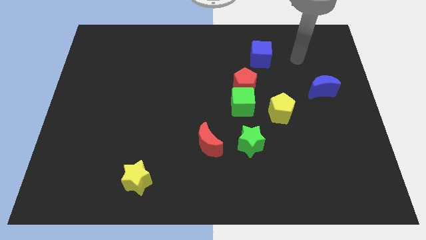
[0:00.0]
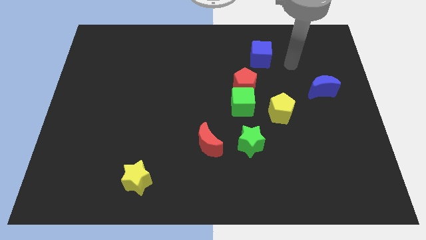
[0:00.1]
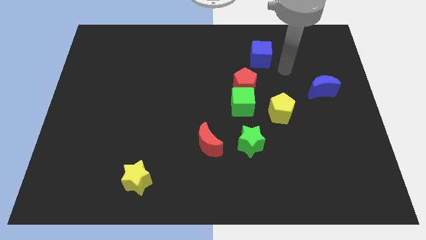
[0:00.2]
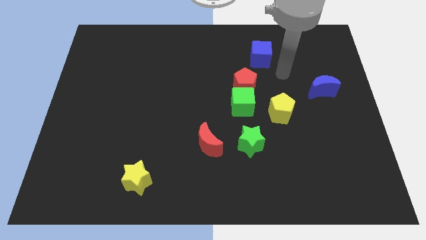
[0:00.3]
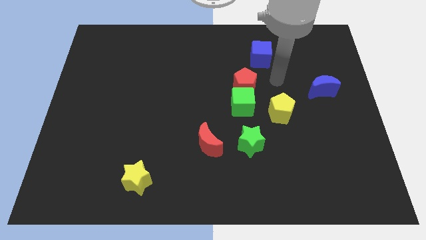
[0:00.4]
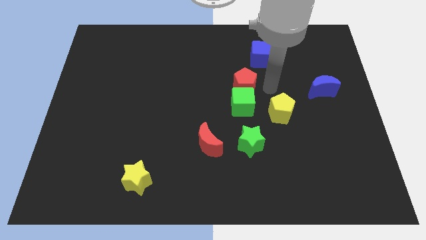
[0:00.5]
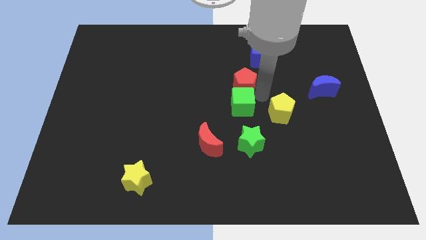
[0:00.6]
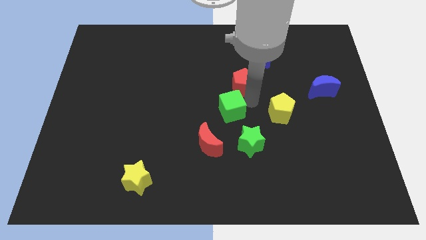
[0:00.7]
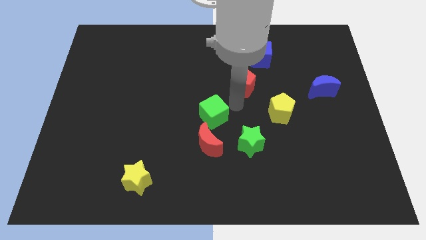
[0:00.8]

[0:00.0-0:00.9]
separate the red pentagon from the green cube

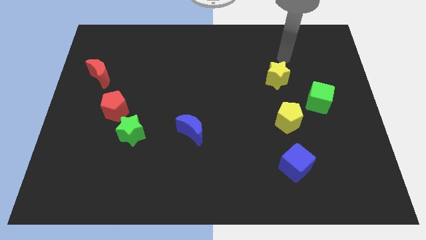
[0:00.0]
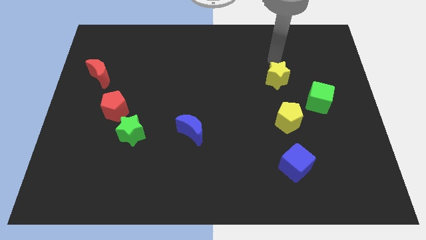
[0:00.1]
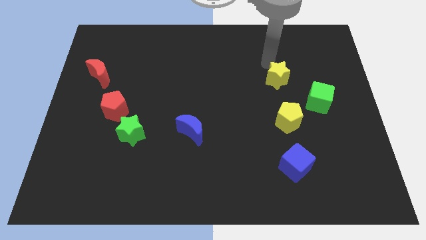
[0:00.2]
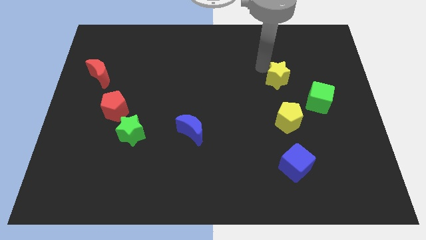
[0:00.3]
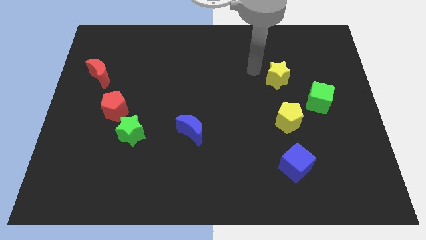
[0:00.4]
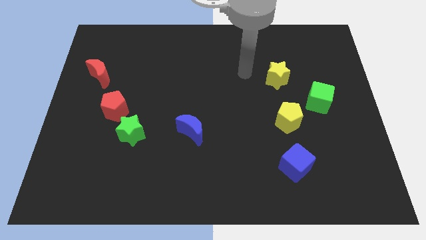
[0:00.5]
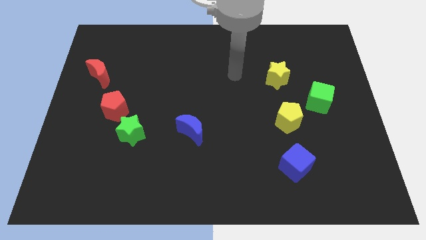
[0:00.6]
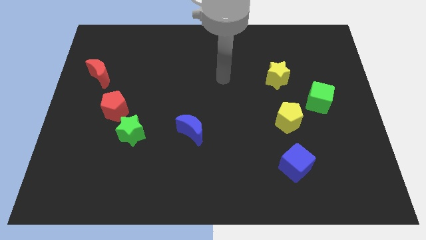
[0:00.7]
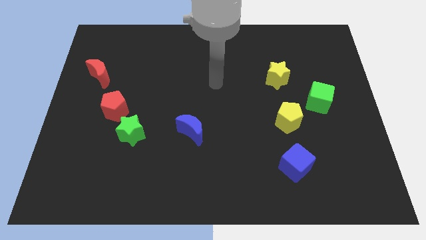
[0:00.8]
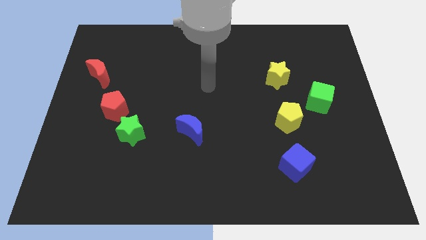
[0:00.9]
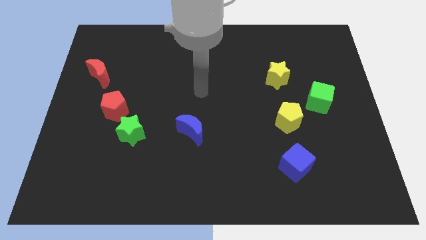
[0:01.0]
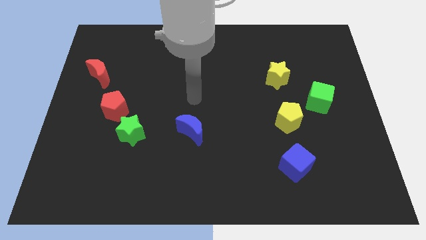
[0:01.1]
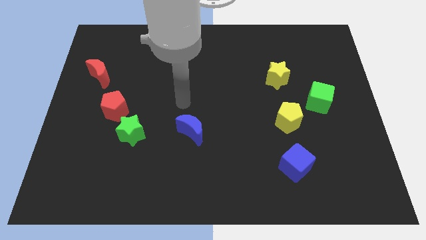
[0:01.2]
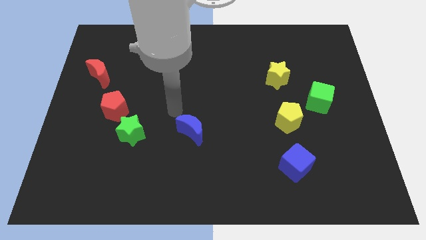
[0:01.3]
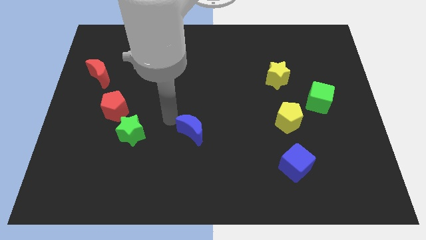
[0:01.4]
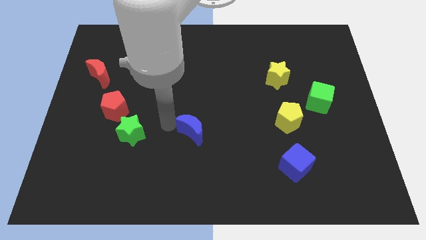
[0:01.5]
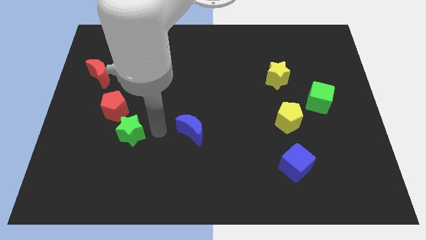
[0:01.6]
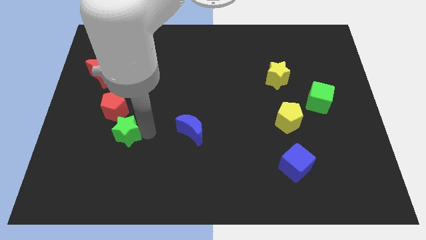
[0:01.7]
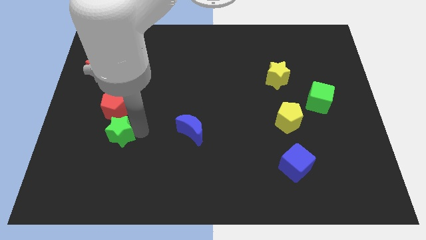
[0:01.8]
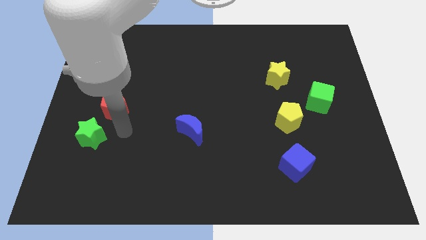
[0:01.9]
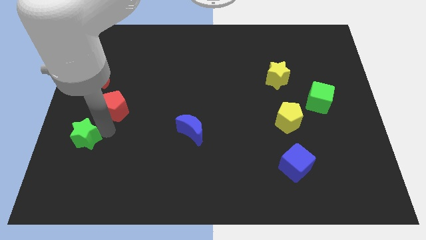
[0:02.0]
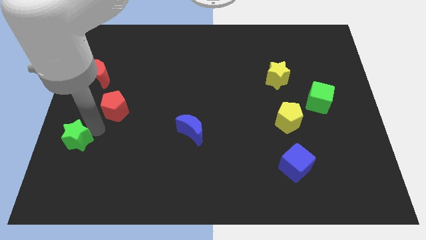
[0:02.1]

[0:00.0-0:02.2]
pull the red pentagon apart from the green star

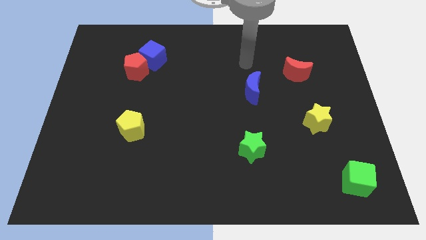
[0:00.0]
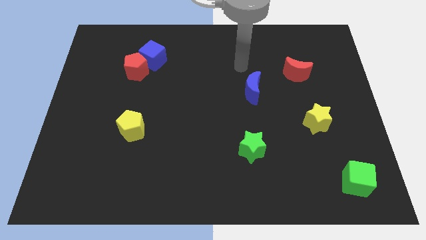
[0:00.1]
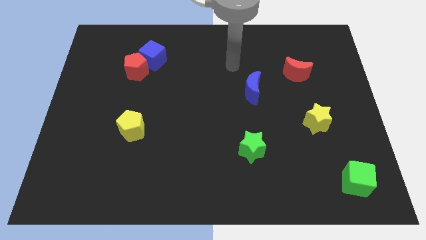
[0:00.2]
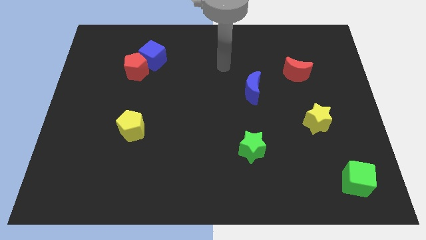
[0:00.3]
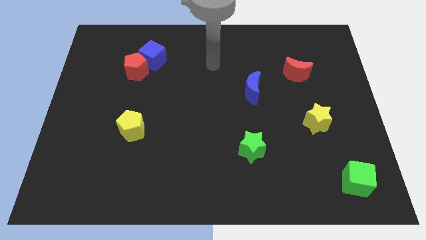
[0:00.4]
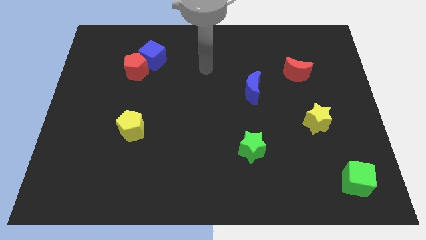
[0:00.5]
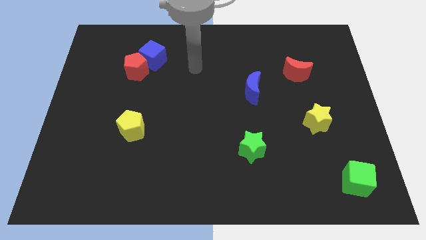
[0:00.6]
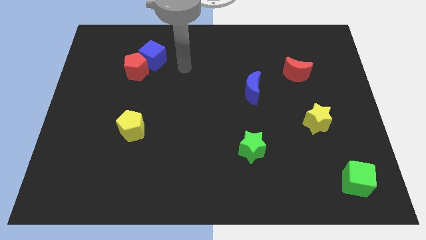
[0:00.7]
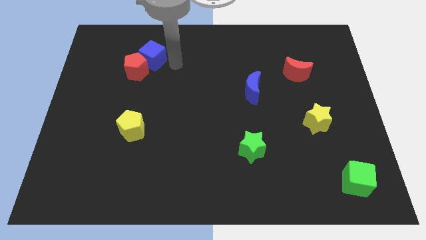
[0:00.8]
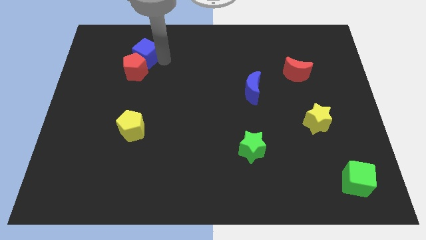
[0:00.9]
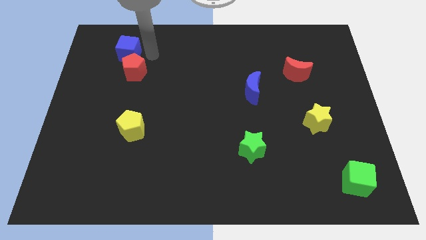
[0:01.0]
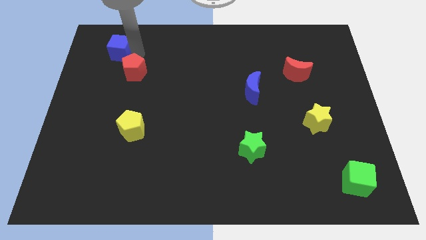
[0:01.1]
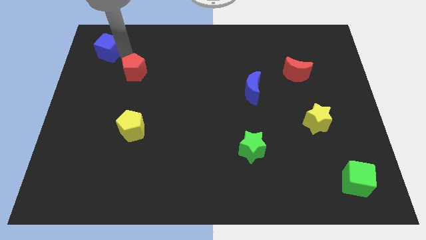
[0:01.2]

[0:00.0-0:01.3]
separate the red pentagon from the blue cube

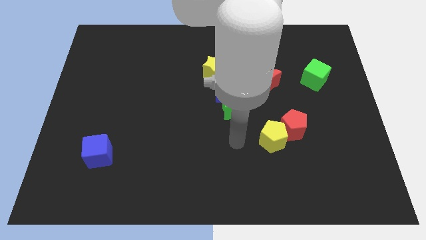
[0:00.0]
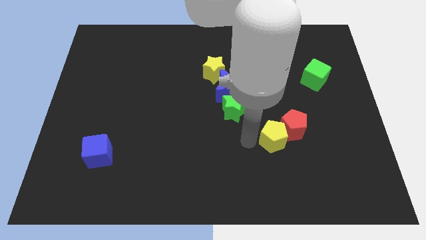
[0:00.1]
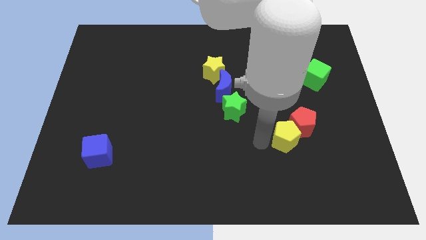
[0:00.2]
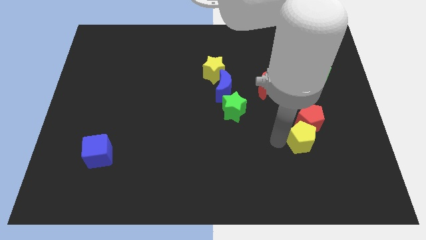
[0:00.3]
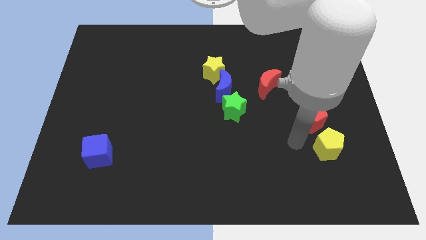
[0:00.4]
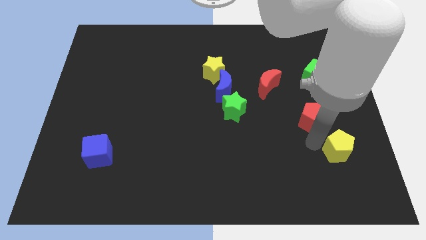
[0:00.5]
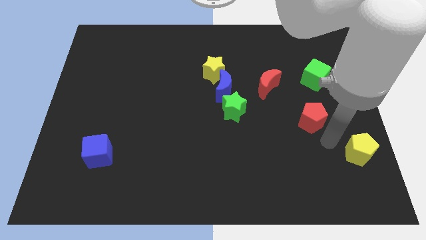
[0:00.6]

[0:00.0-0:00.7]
separate the red pentagon from the yellow pentagon

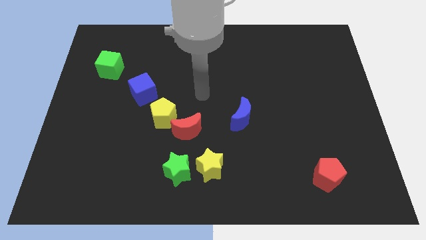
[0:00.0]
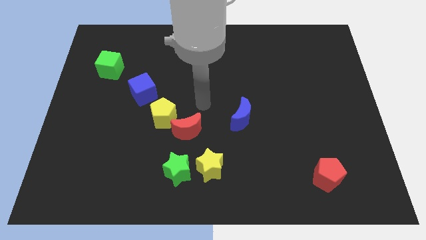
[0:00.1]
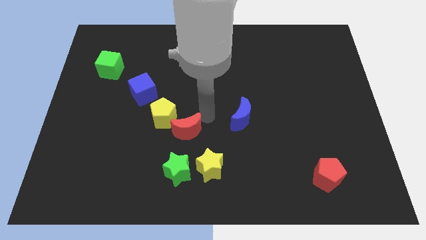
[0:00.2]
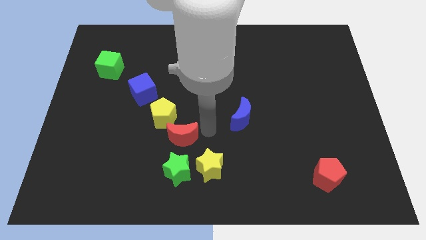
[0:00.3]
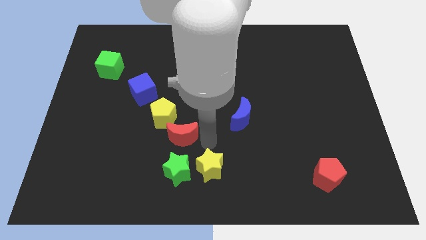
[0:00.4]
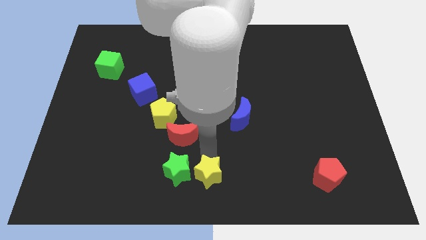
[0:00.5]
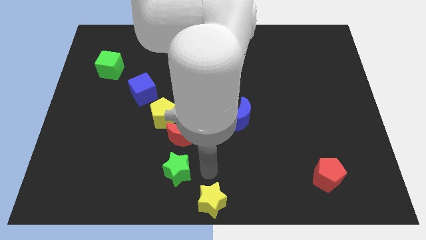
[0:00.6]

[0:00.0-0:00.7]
separate the green star from the yellow star

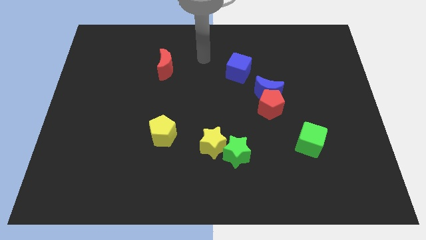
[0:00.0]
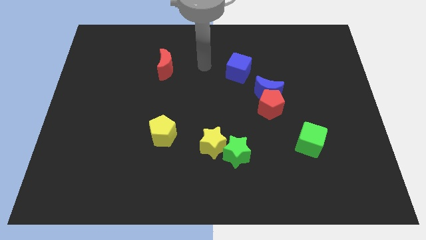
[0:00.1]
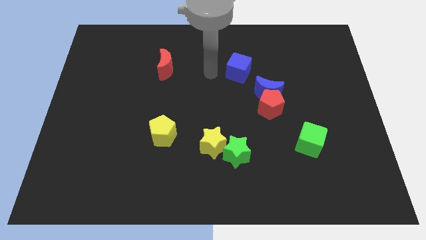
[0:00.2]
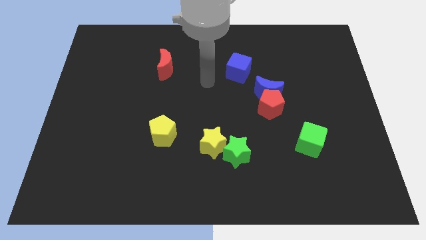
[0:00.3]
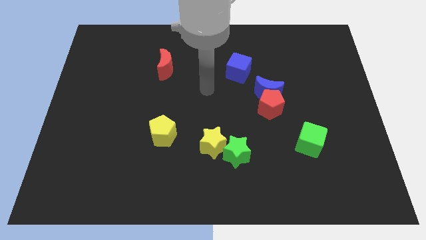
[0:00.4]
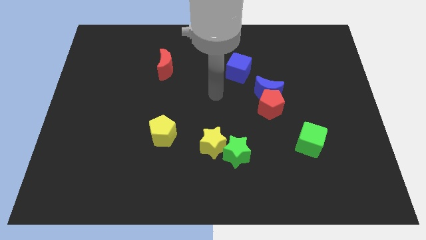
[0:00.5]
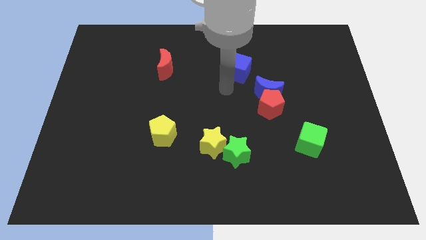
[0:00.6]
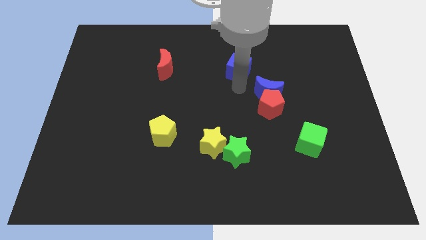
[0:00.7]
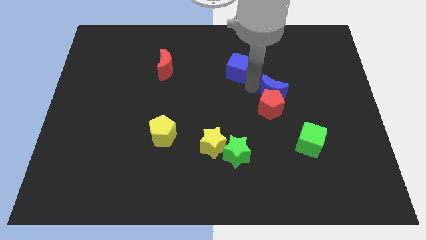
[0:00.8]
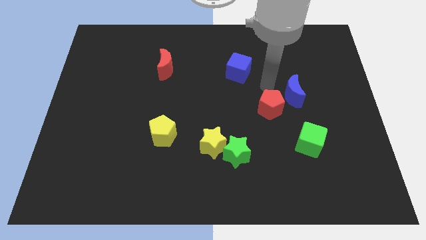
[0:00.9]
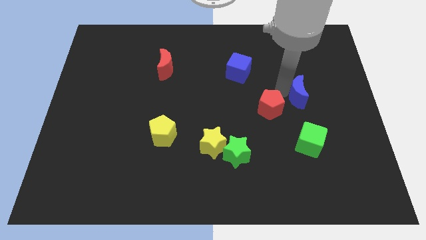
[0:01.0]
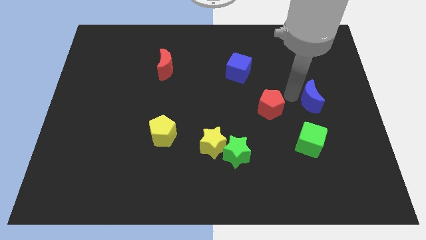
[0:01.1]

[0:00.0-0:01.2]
move the red pentagon away from the blue moon

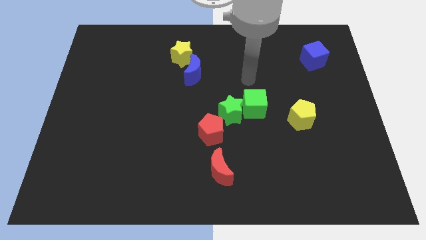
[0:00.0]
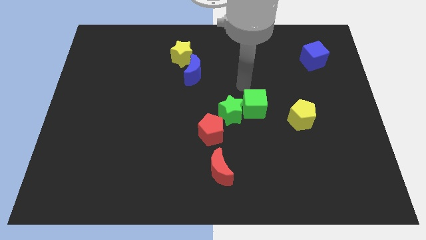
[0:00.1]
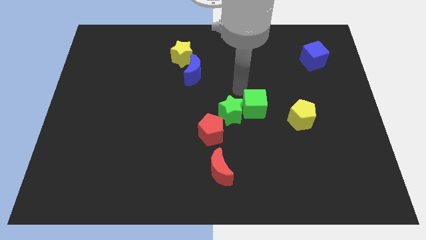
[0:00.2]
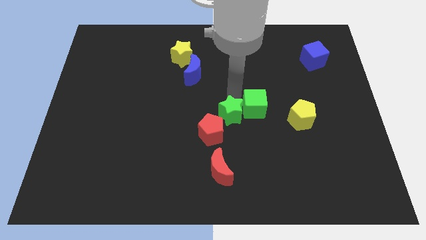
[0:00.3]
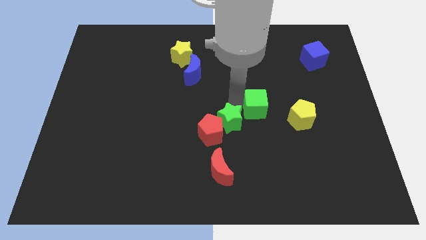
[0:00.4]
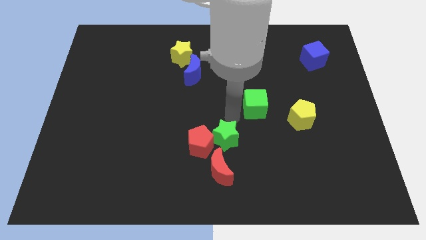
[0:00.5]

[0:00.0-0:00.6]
move the green cube away from the green star

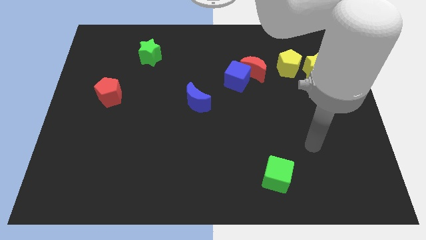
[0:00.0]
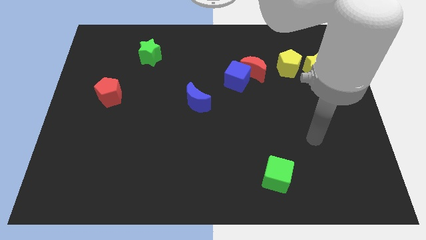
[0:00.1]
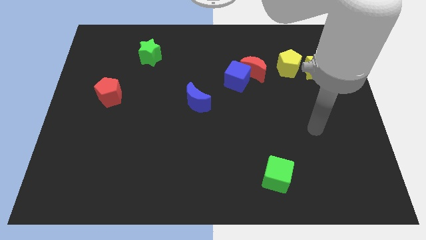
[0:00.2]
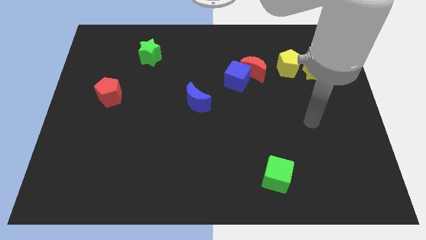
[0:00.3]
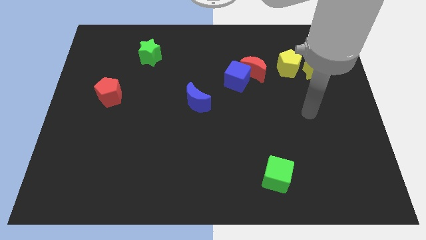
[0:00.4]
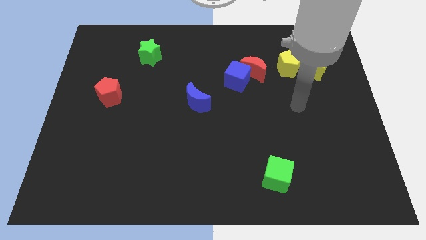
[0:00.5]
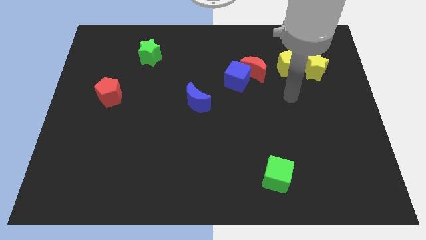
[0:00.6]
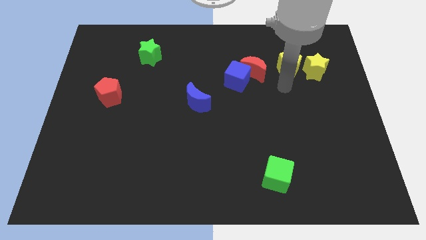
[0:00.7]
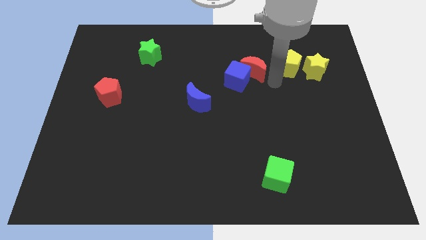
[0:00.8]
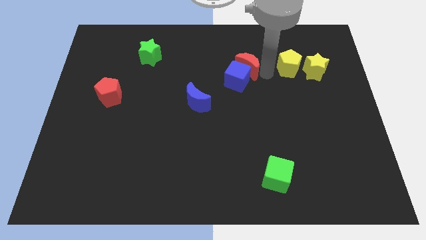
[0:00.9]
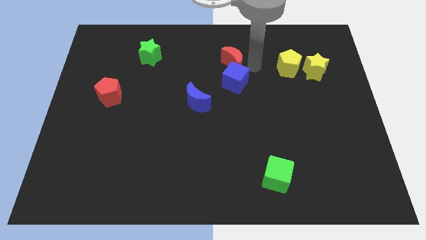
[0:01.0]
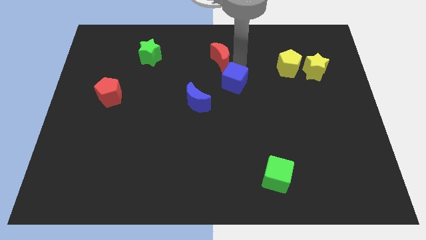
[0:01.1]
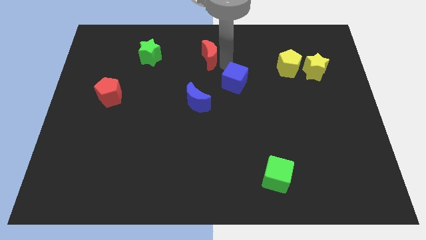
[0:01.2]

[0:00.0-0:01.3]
separate the blue cube from the red moon

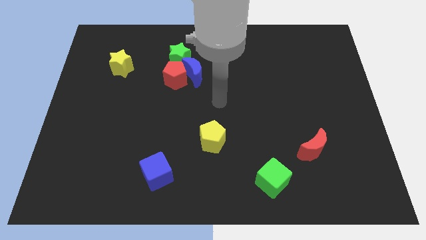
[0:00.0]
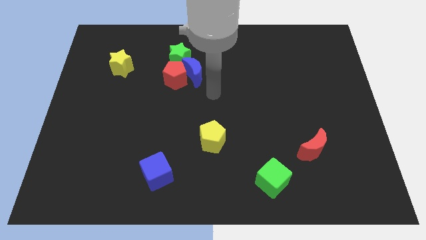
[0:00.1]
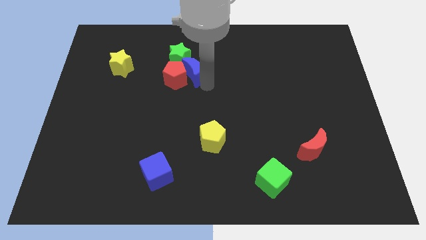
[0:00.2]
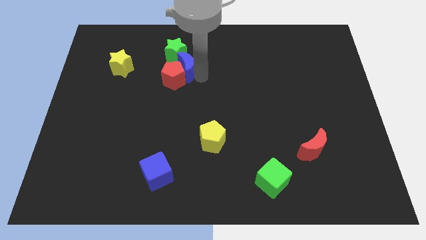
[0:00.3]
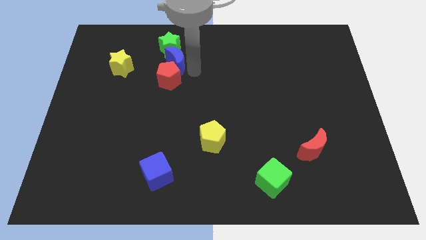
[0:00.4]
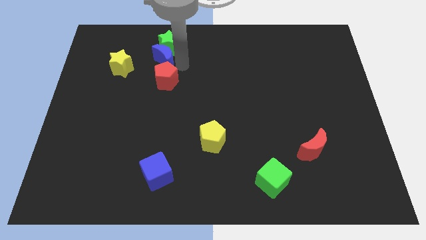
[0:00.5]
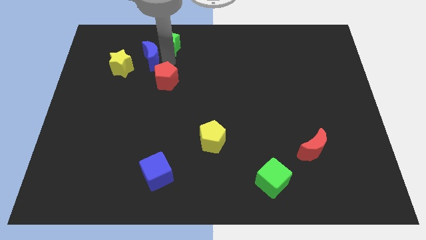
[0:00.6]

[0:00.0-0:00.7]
pull the red pentagon apart from the blue moon and green star
